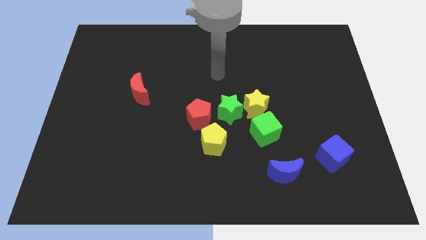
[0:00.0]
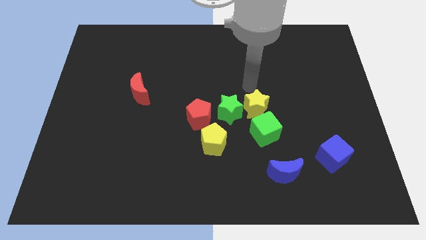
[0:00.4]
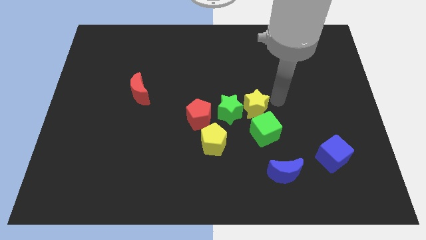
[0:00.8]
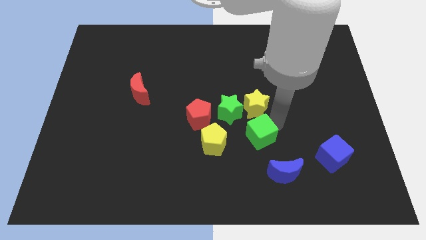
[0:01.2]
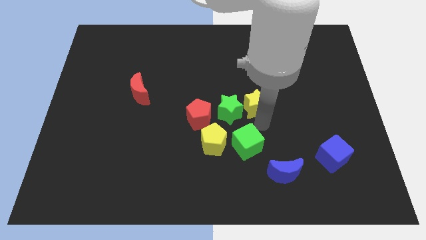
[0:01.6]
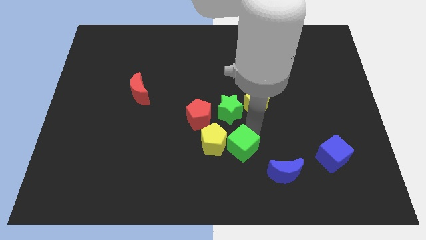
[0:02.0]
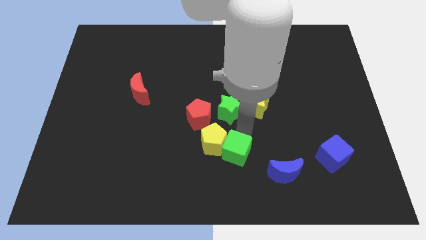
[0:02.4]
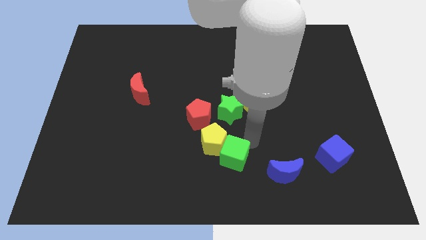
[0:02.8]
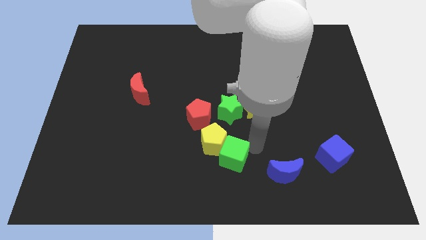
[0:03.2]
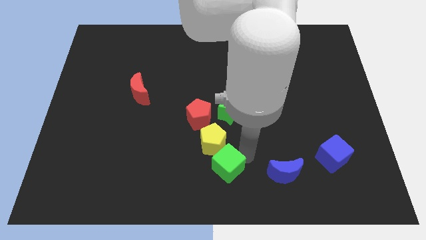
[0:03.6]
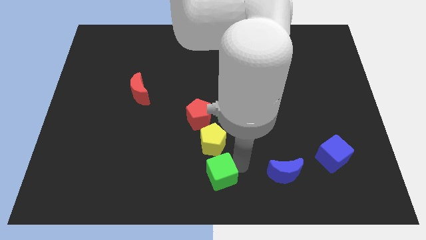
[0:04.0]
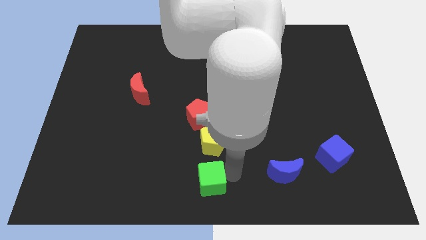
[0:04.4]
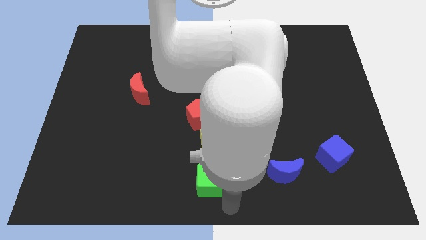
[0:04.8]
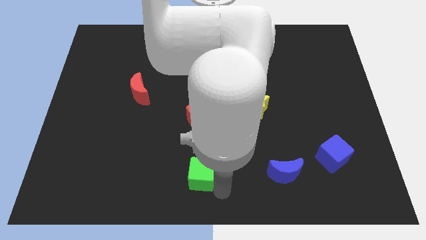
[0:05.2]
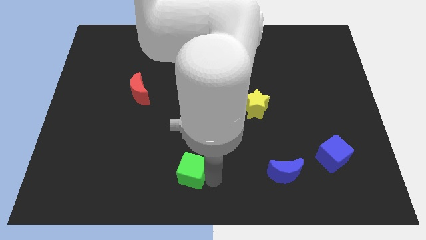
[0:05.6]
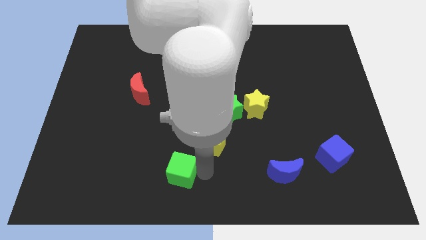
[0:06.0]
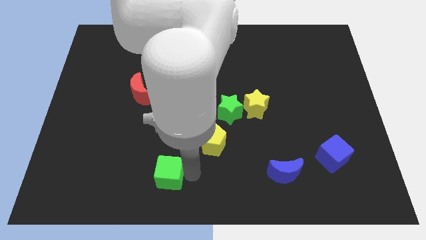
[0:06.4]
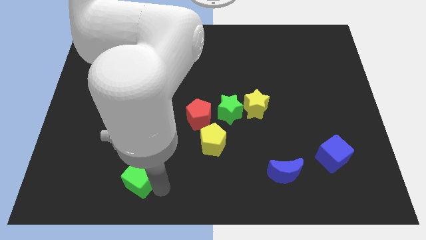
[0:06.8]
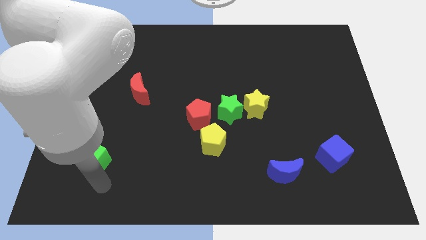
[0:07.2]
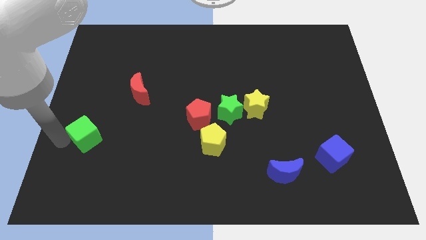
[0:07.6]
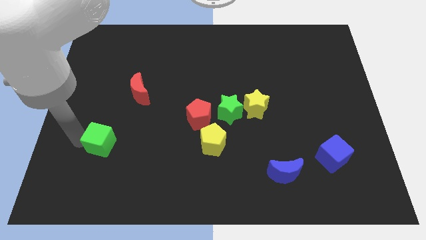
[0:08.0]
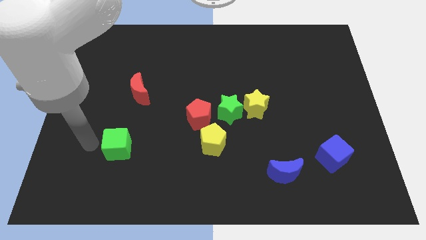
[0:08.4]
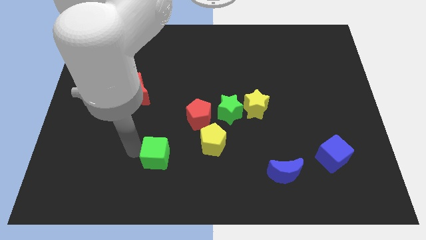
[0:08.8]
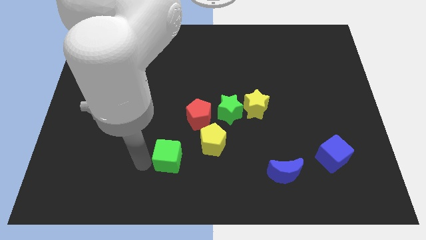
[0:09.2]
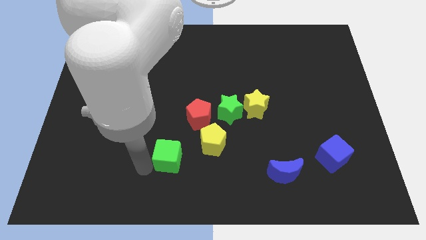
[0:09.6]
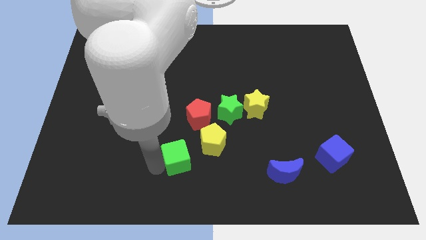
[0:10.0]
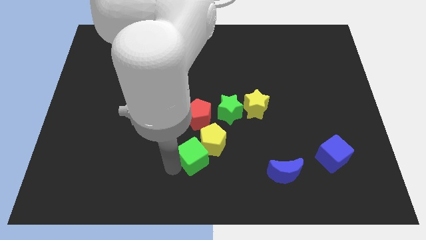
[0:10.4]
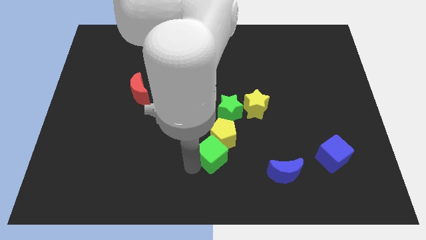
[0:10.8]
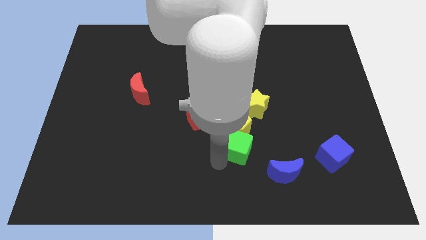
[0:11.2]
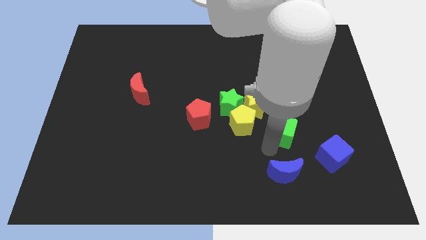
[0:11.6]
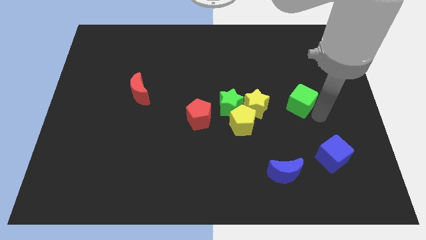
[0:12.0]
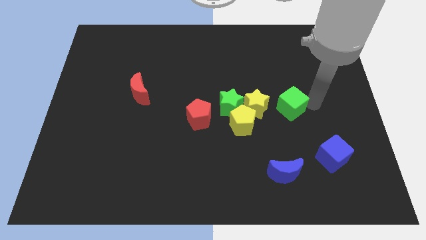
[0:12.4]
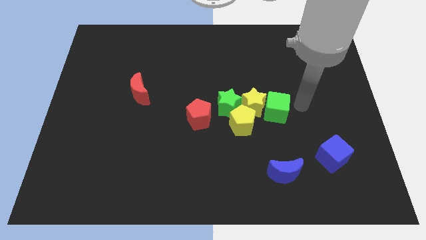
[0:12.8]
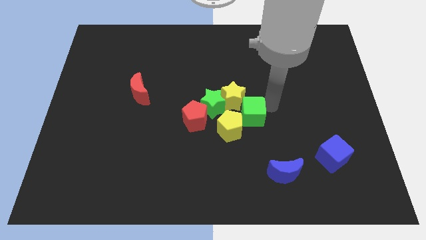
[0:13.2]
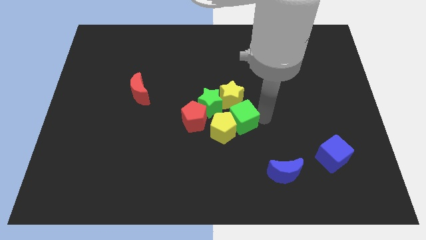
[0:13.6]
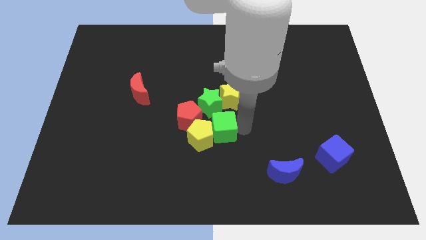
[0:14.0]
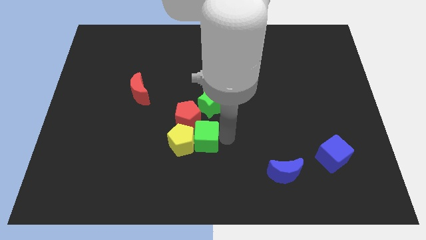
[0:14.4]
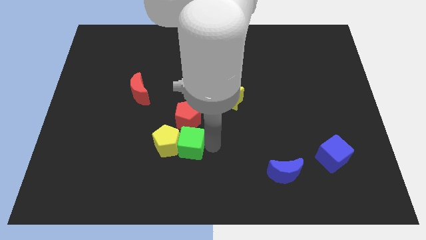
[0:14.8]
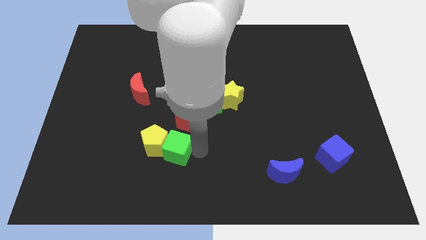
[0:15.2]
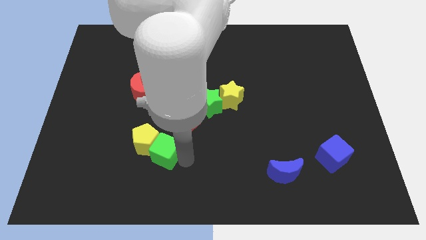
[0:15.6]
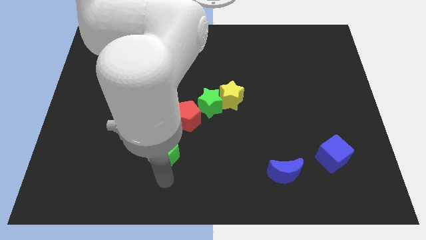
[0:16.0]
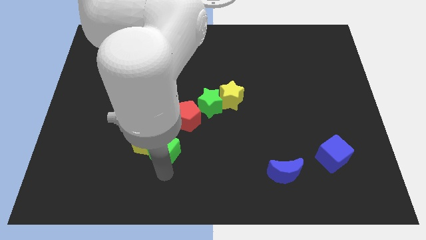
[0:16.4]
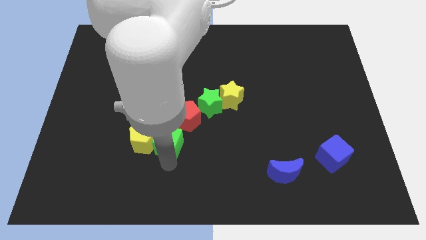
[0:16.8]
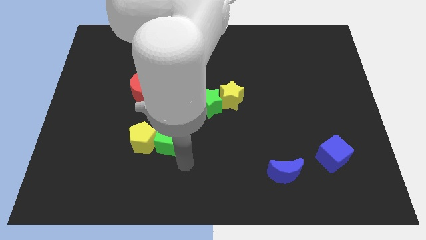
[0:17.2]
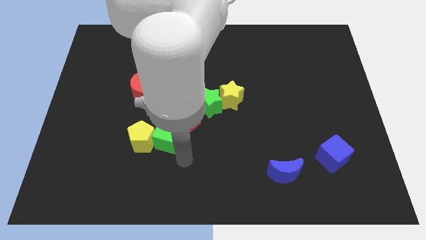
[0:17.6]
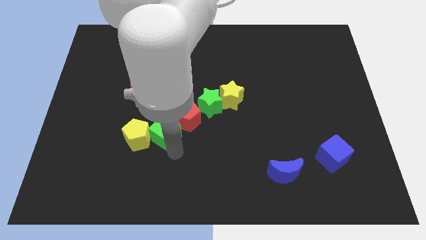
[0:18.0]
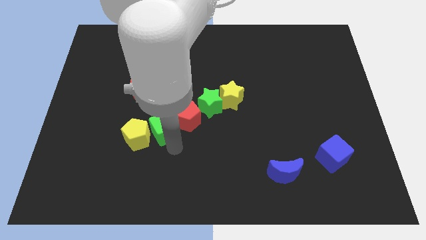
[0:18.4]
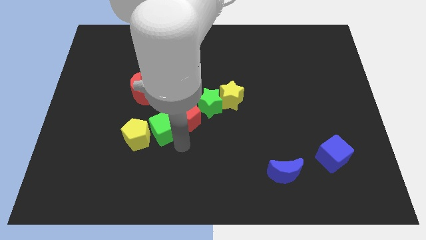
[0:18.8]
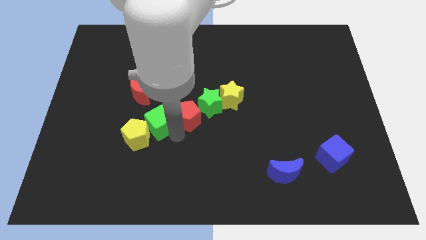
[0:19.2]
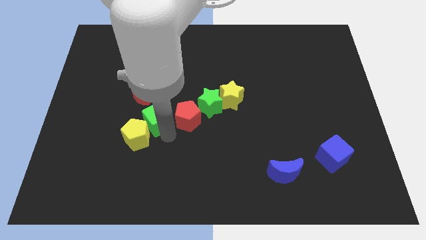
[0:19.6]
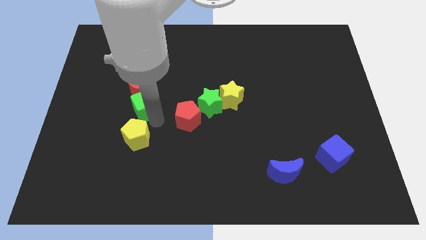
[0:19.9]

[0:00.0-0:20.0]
slide the green cube to the red moon

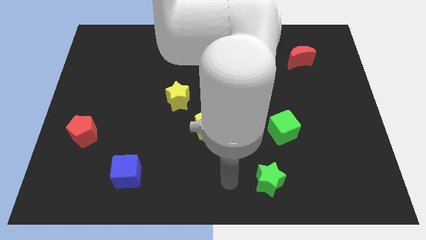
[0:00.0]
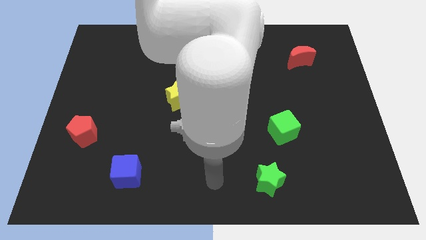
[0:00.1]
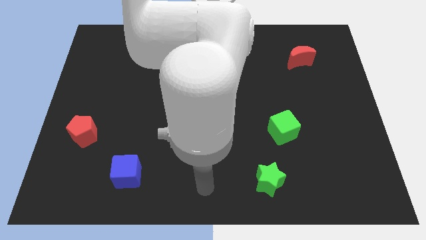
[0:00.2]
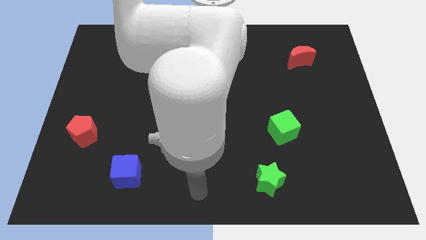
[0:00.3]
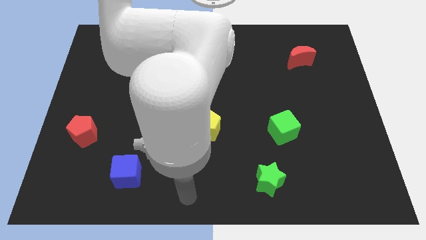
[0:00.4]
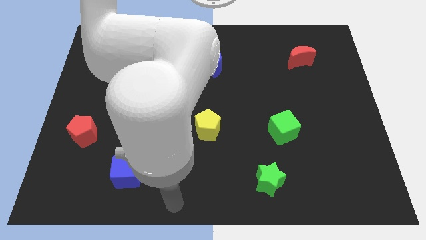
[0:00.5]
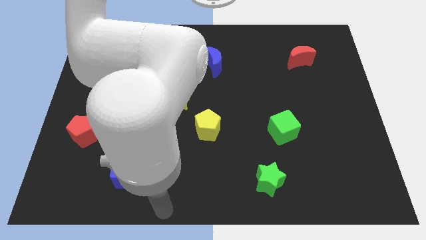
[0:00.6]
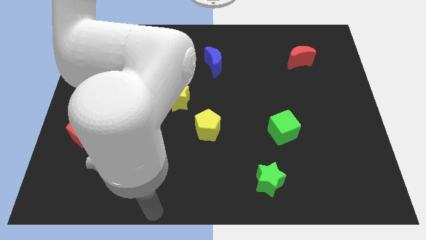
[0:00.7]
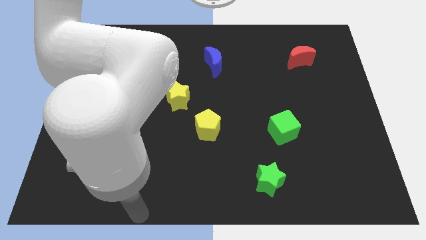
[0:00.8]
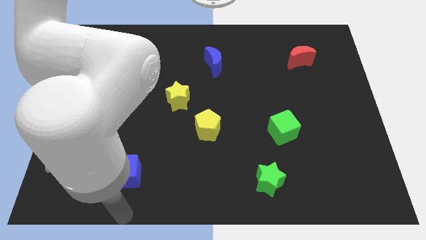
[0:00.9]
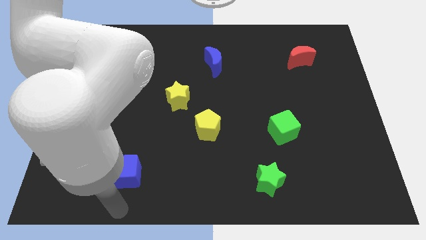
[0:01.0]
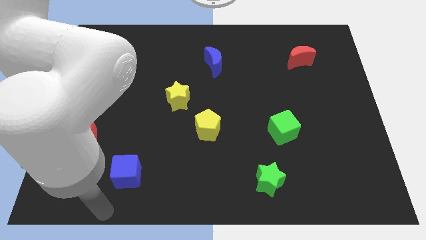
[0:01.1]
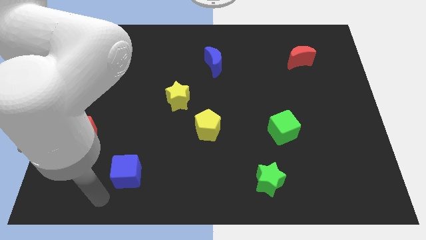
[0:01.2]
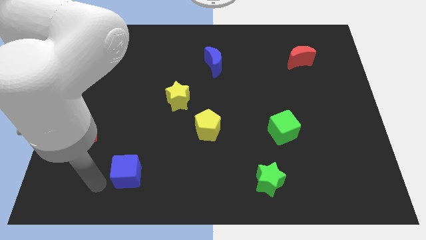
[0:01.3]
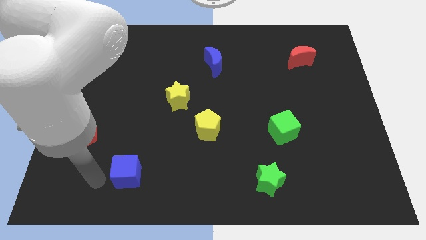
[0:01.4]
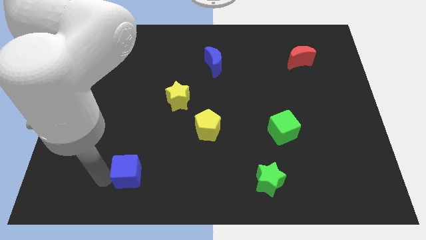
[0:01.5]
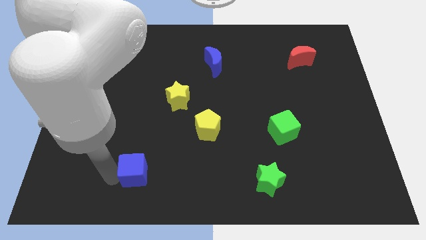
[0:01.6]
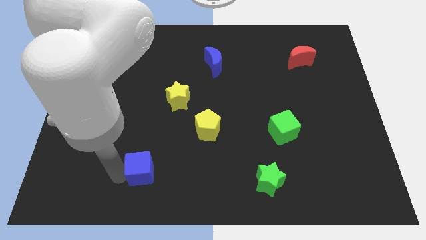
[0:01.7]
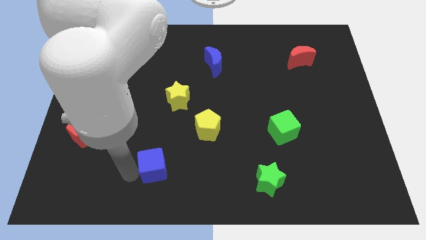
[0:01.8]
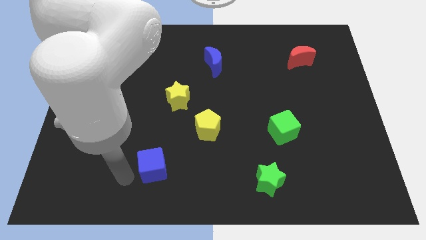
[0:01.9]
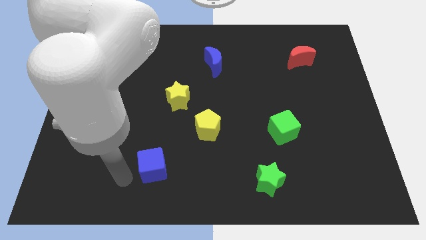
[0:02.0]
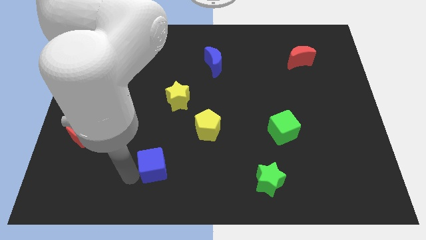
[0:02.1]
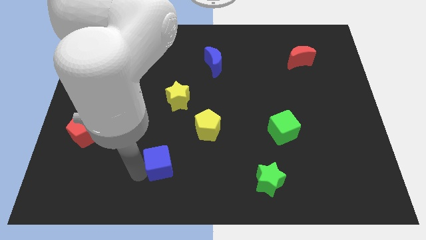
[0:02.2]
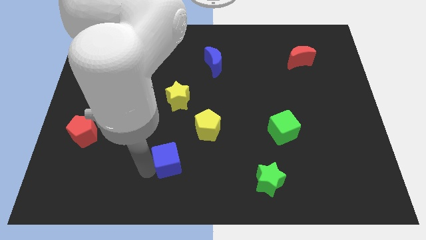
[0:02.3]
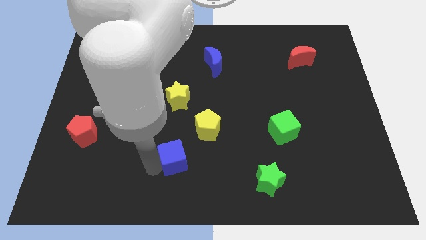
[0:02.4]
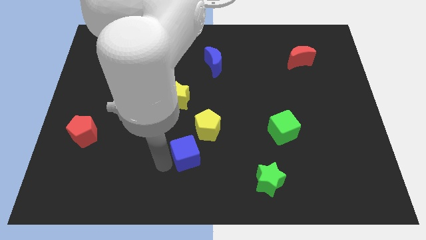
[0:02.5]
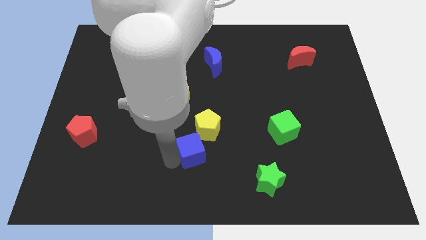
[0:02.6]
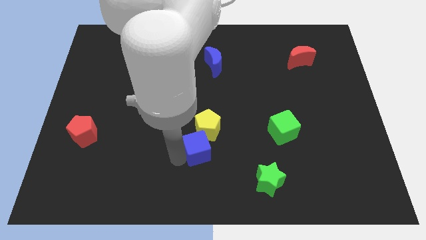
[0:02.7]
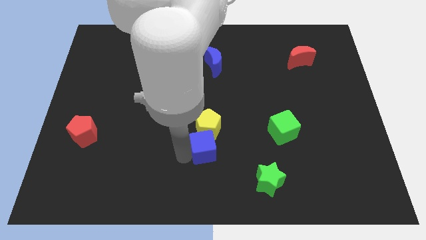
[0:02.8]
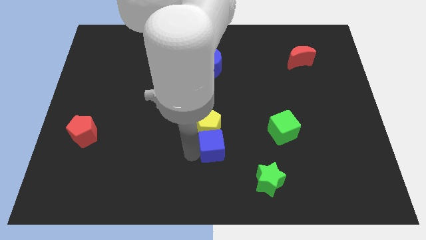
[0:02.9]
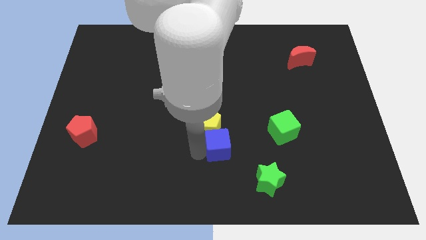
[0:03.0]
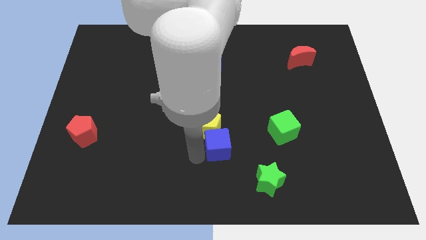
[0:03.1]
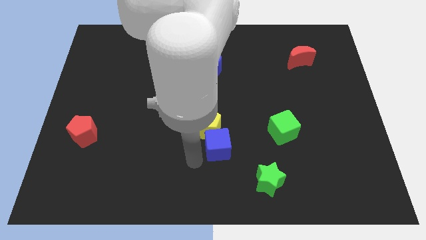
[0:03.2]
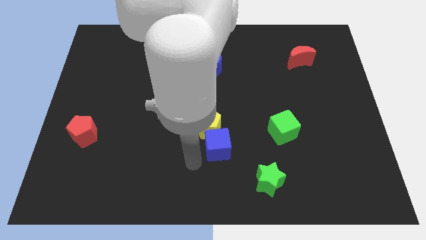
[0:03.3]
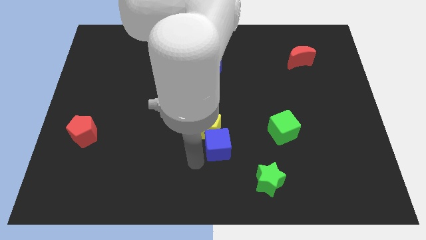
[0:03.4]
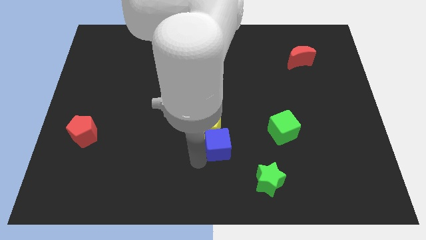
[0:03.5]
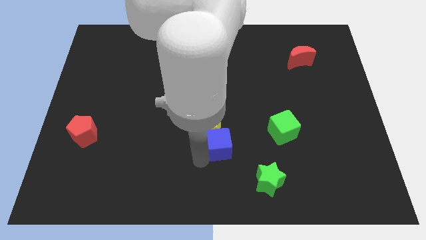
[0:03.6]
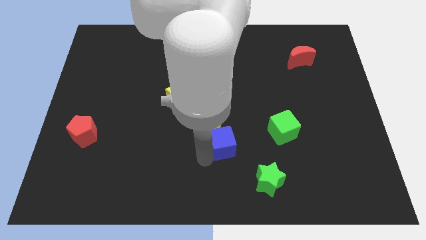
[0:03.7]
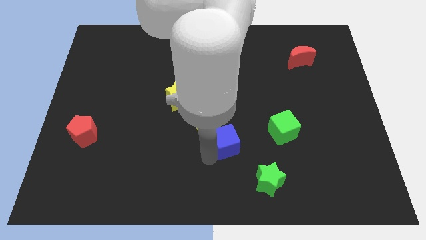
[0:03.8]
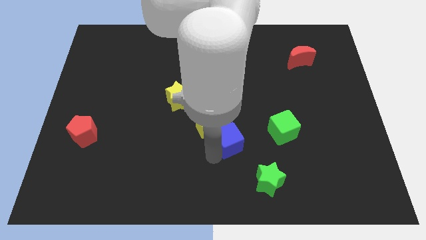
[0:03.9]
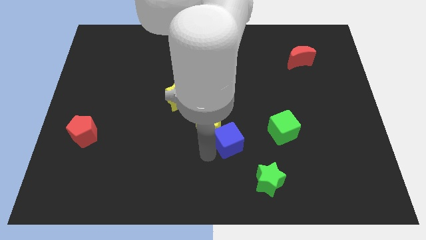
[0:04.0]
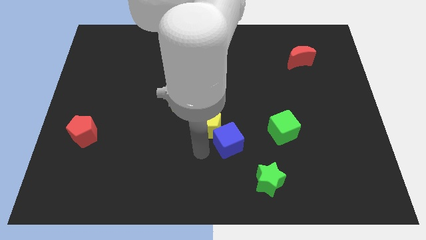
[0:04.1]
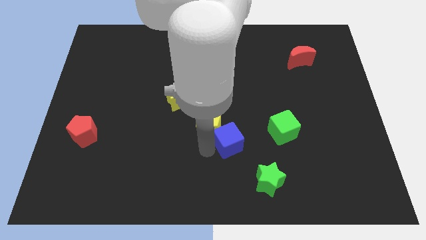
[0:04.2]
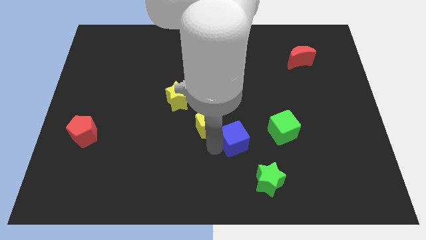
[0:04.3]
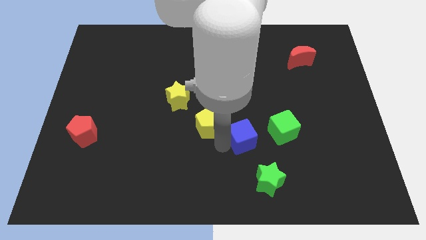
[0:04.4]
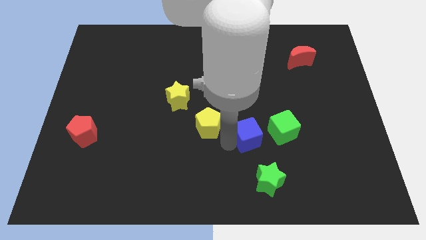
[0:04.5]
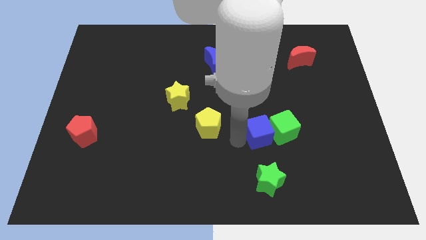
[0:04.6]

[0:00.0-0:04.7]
put the blue cube next to the green cube
